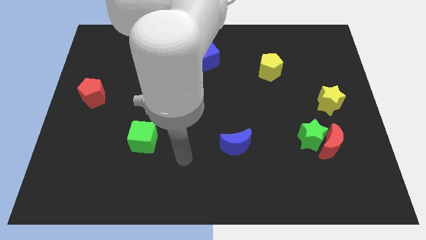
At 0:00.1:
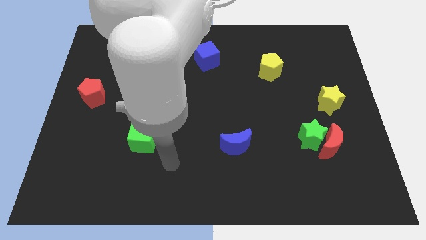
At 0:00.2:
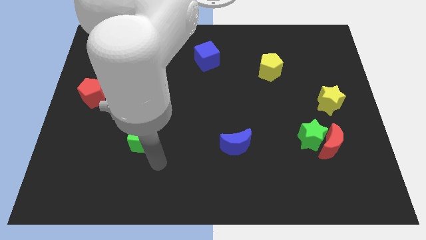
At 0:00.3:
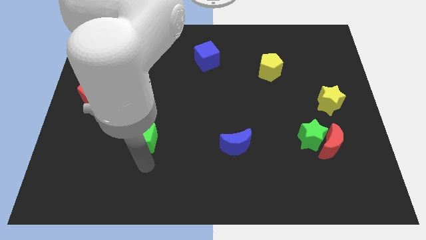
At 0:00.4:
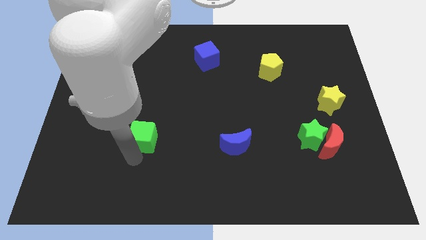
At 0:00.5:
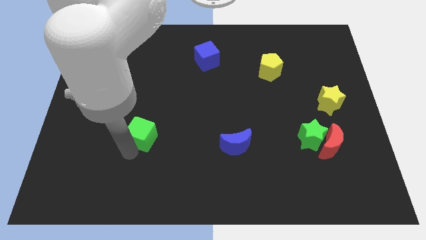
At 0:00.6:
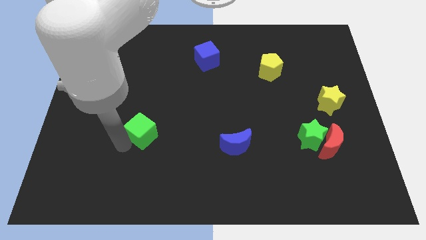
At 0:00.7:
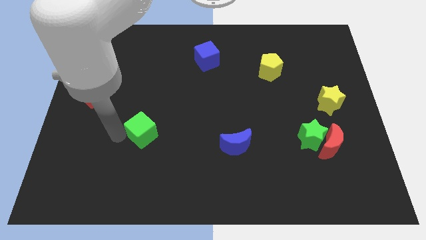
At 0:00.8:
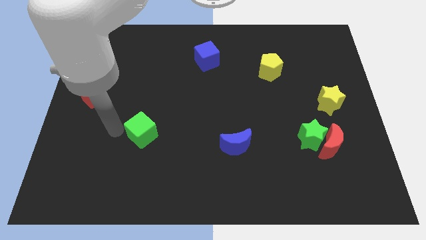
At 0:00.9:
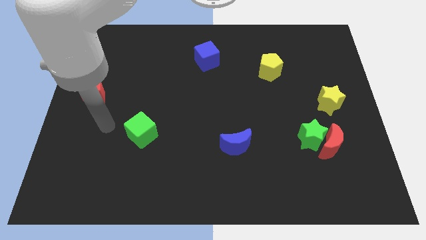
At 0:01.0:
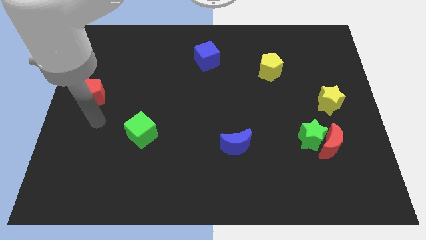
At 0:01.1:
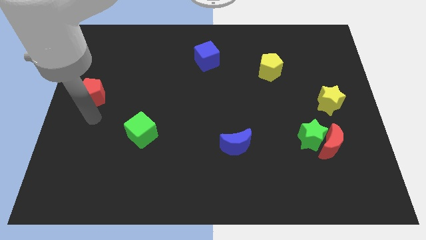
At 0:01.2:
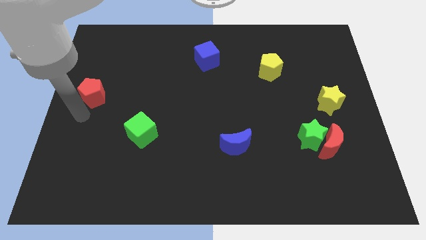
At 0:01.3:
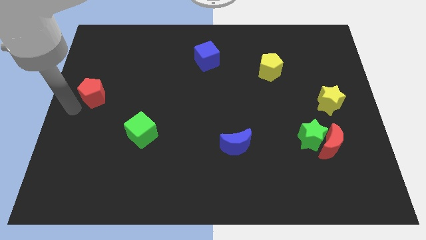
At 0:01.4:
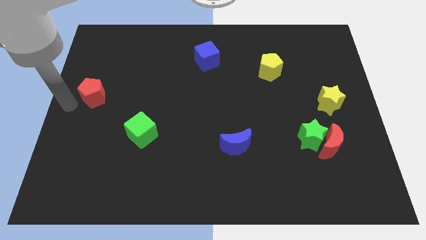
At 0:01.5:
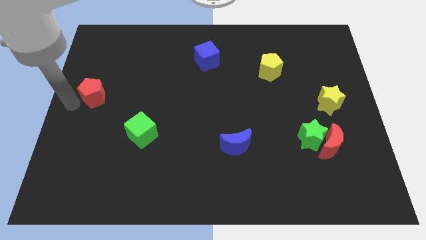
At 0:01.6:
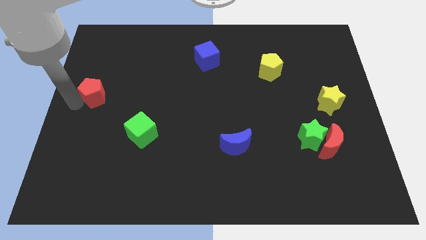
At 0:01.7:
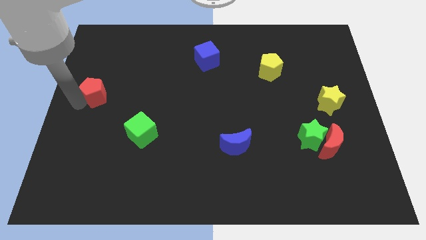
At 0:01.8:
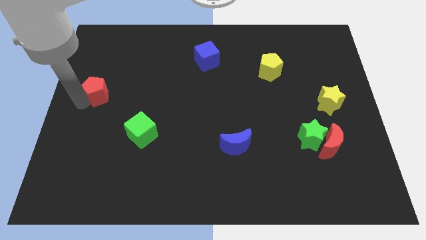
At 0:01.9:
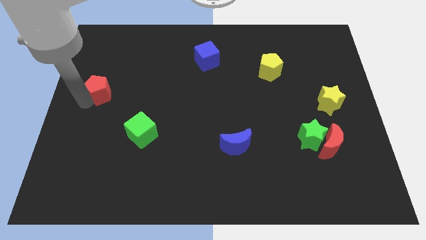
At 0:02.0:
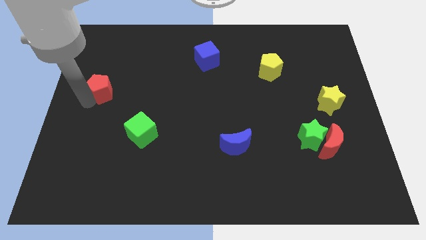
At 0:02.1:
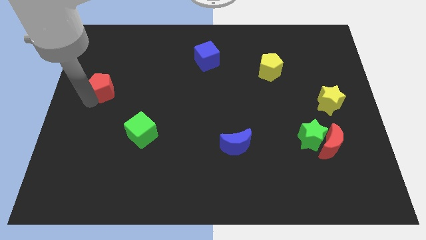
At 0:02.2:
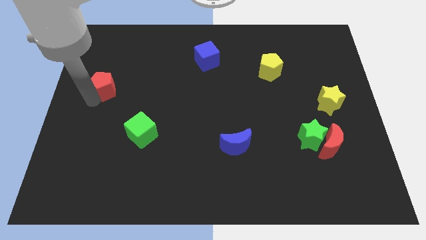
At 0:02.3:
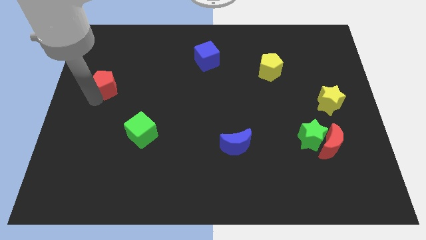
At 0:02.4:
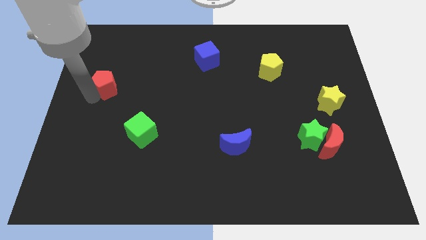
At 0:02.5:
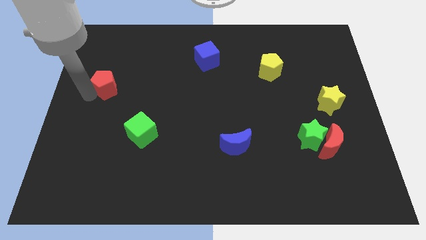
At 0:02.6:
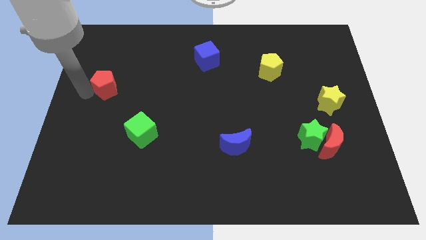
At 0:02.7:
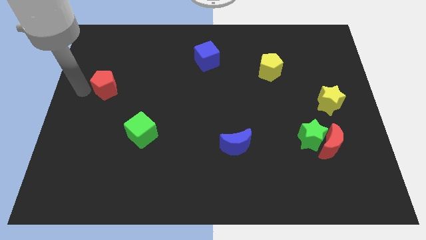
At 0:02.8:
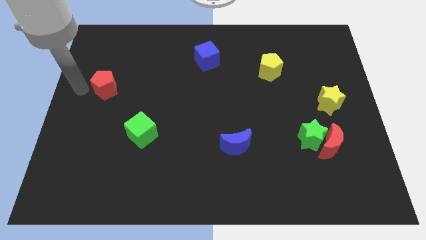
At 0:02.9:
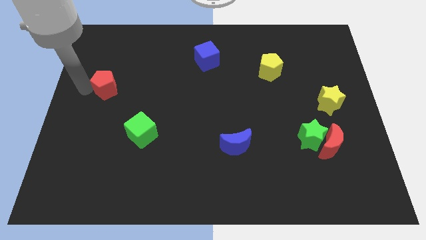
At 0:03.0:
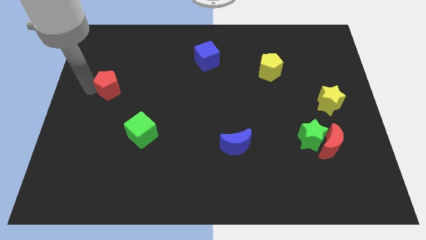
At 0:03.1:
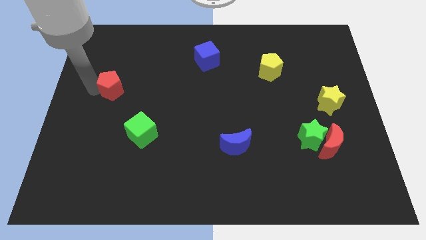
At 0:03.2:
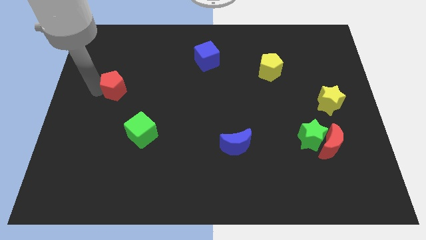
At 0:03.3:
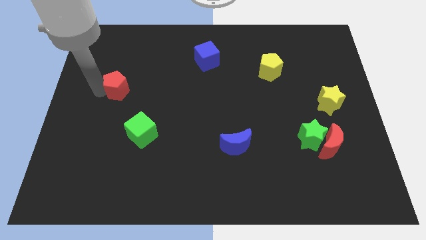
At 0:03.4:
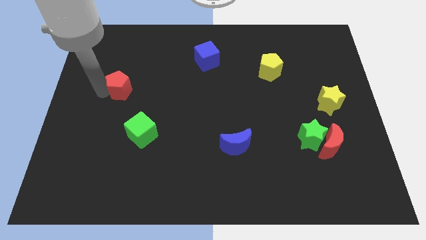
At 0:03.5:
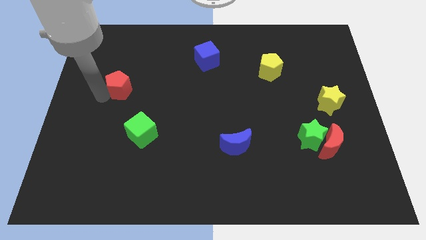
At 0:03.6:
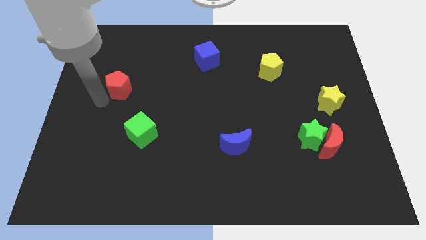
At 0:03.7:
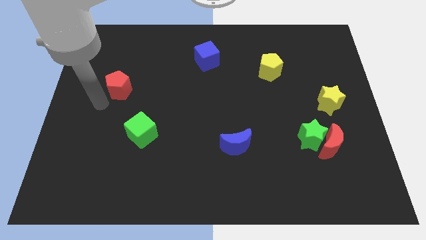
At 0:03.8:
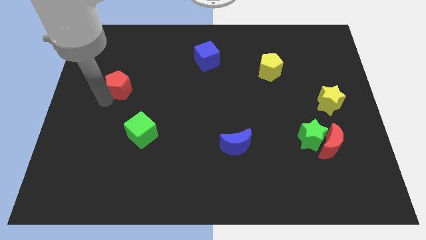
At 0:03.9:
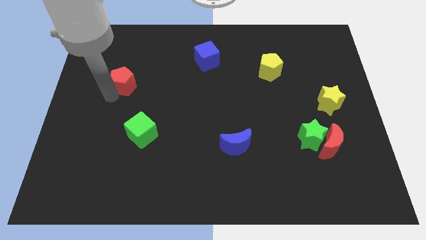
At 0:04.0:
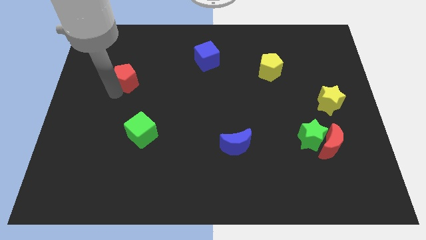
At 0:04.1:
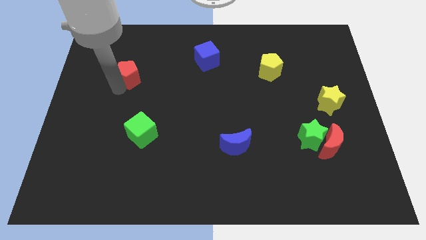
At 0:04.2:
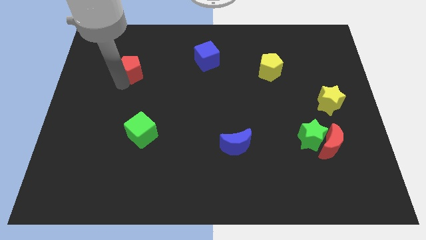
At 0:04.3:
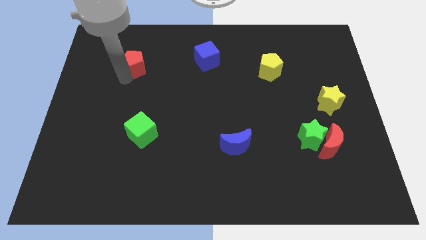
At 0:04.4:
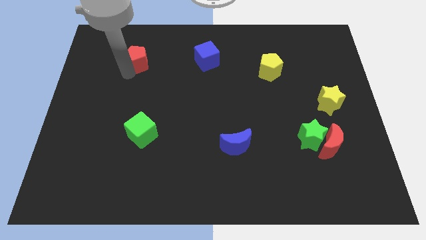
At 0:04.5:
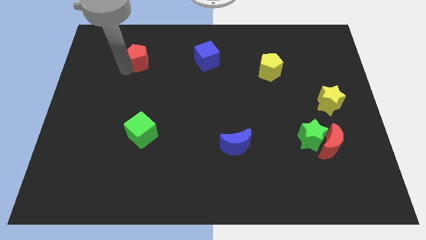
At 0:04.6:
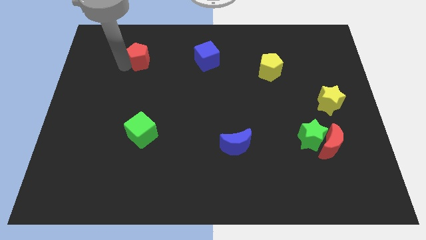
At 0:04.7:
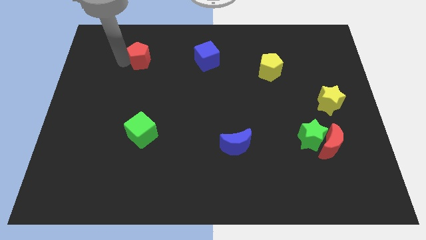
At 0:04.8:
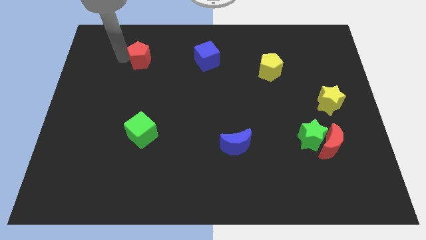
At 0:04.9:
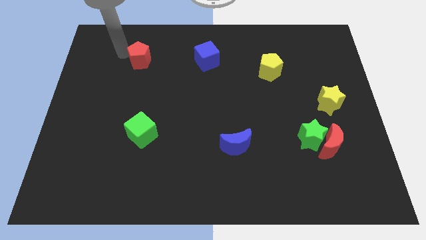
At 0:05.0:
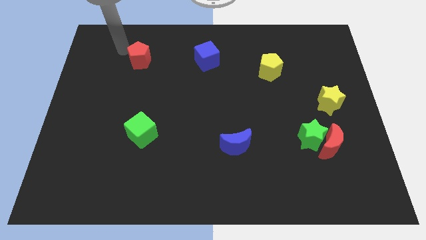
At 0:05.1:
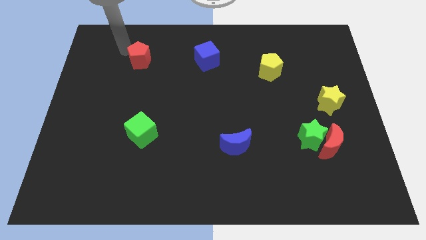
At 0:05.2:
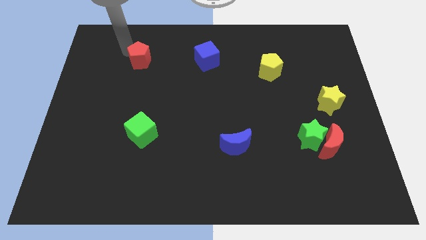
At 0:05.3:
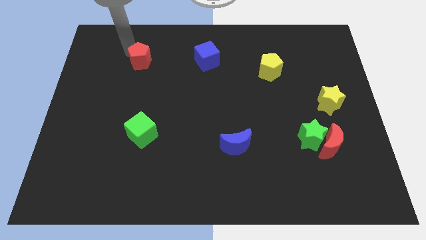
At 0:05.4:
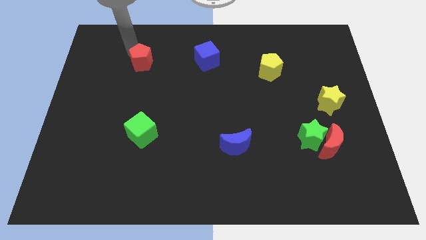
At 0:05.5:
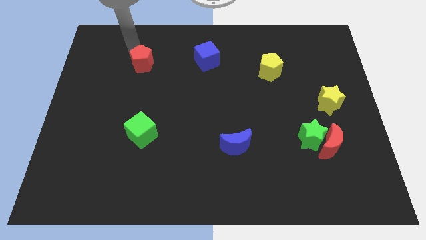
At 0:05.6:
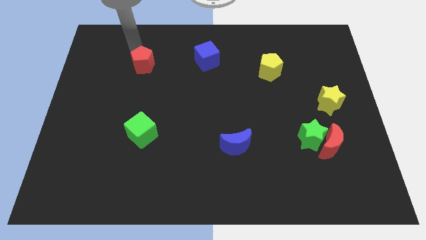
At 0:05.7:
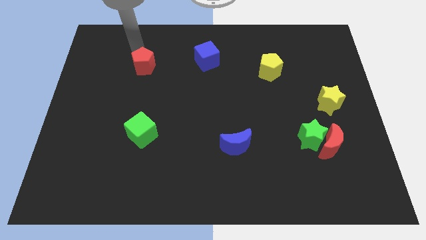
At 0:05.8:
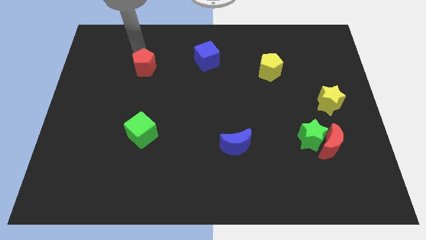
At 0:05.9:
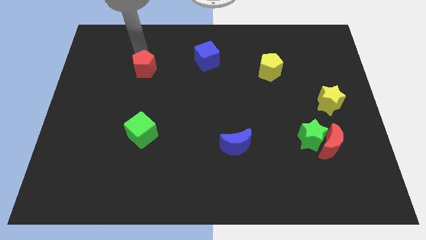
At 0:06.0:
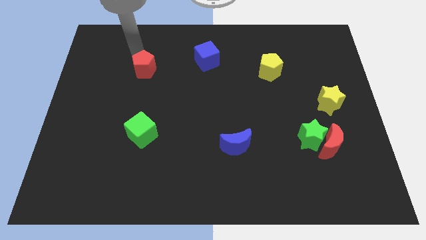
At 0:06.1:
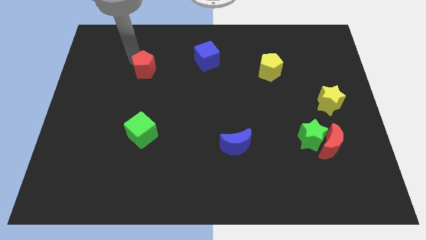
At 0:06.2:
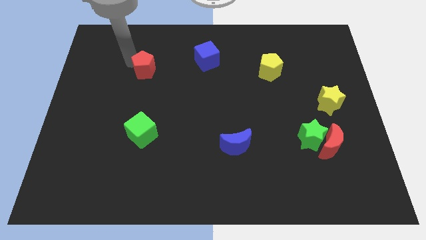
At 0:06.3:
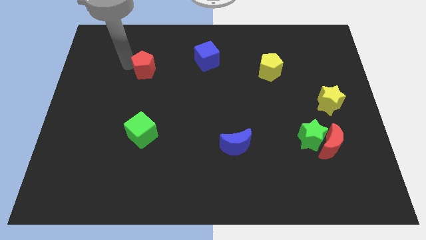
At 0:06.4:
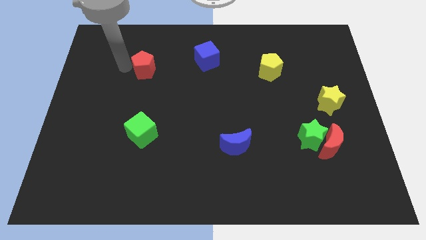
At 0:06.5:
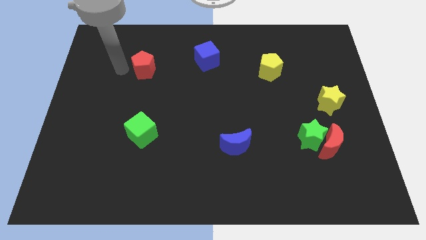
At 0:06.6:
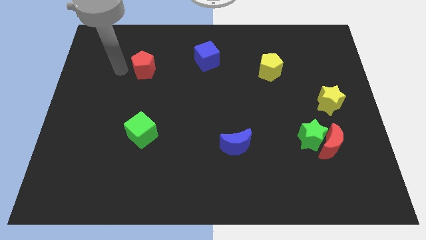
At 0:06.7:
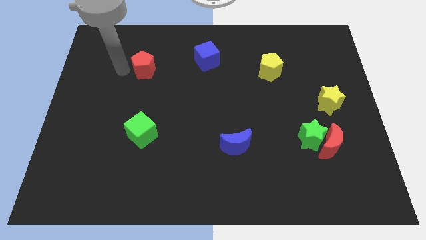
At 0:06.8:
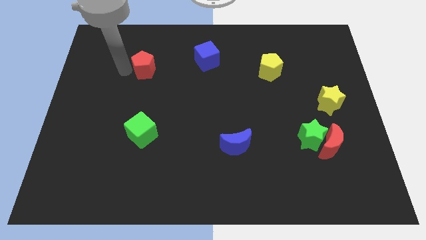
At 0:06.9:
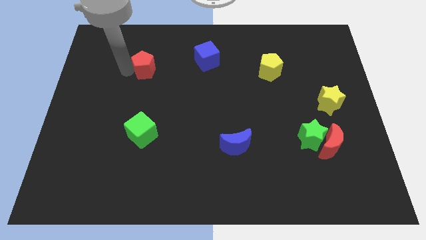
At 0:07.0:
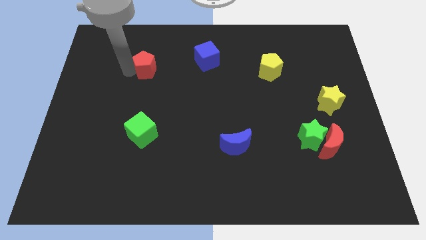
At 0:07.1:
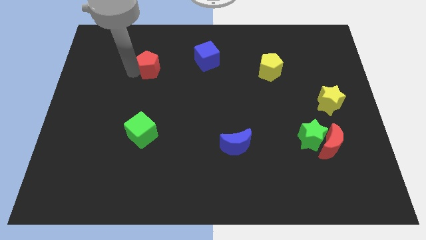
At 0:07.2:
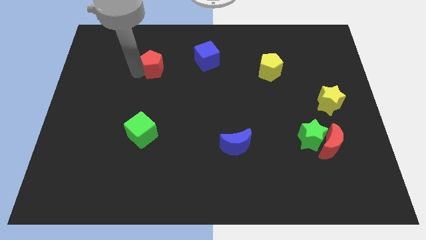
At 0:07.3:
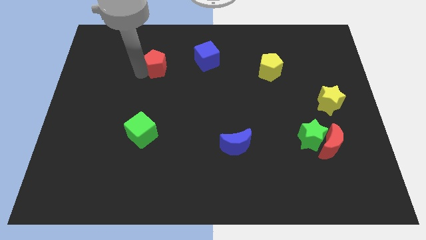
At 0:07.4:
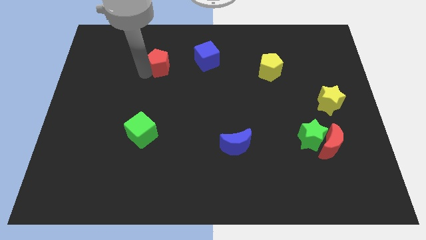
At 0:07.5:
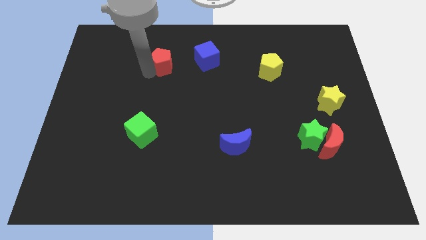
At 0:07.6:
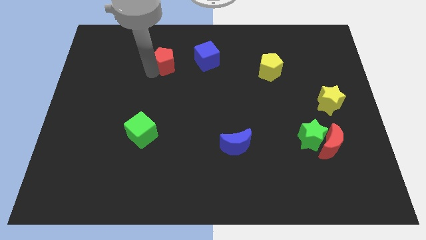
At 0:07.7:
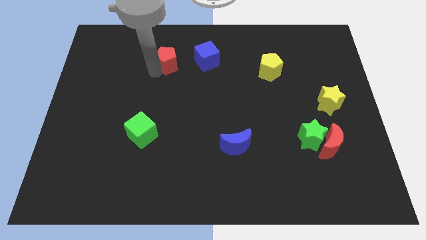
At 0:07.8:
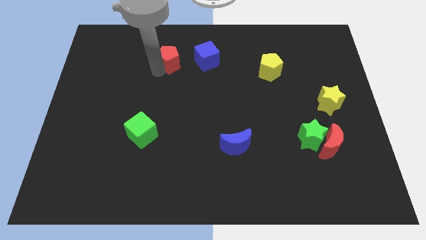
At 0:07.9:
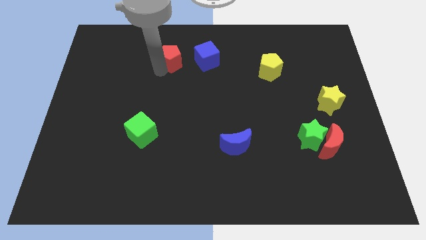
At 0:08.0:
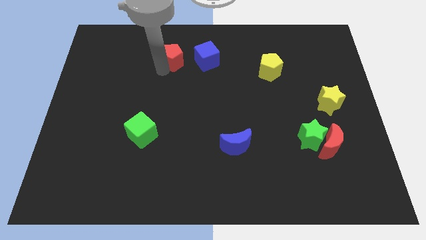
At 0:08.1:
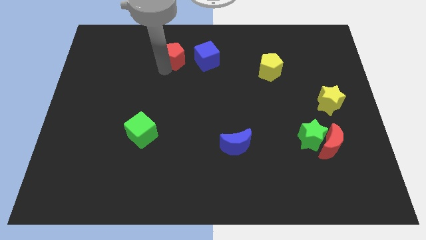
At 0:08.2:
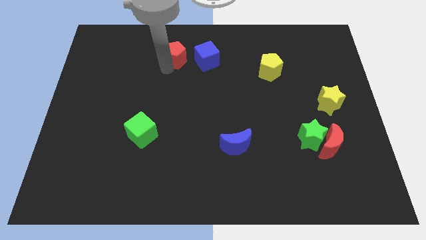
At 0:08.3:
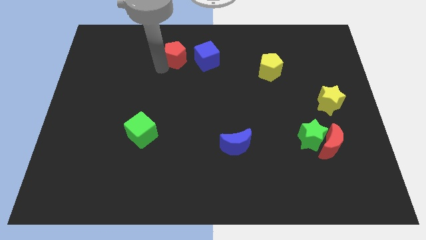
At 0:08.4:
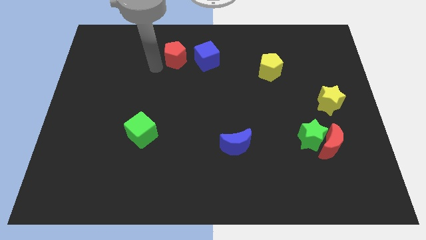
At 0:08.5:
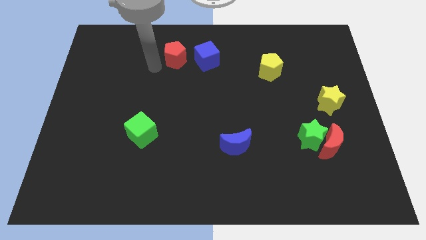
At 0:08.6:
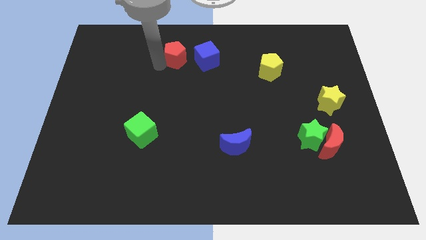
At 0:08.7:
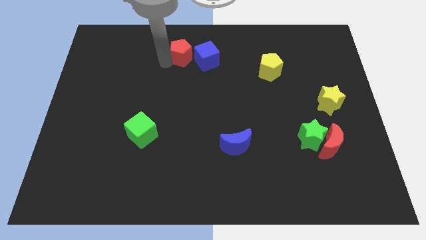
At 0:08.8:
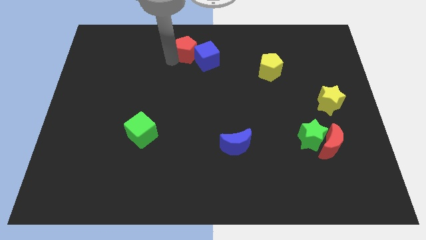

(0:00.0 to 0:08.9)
push the red pentagon to the top side
